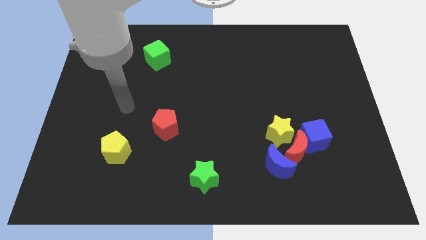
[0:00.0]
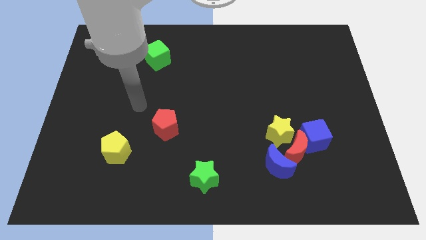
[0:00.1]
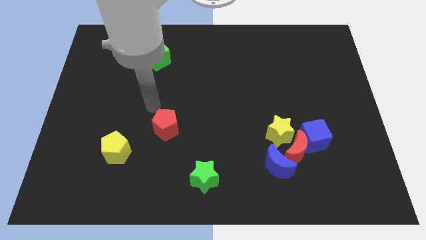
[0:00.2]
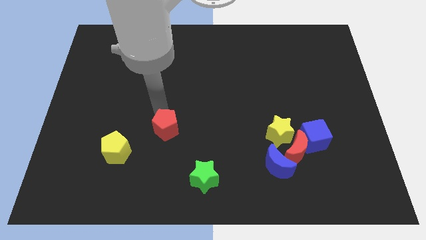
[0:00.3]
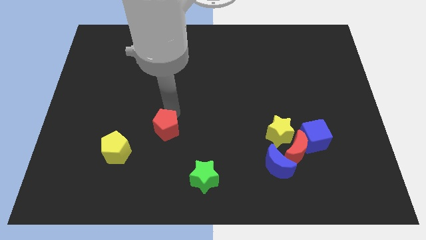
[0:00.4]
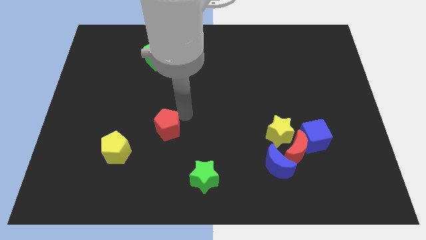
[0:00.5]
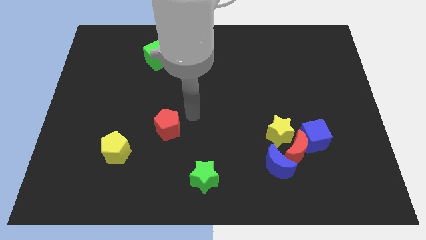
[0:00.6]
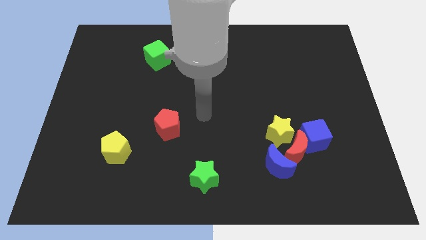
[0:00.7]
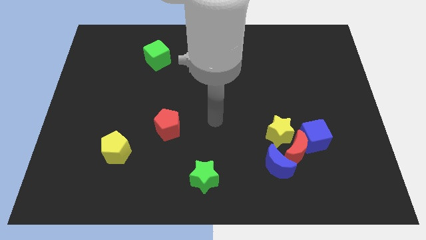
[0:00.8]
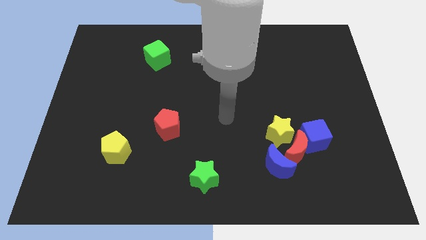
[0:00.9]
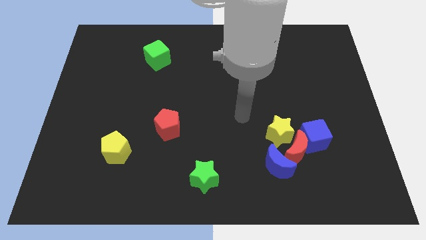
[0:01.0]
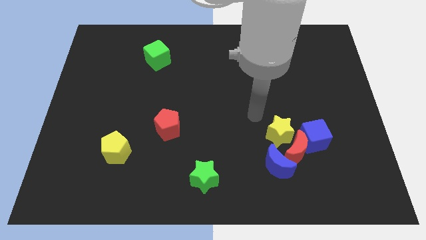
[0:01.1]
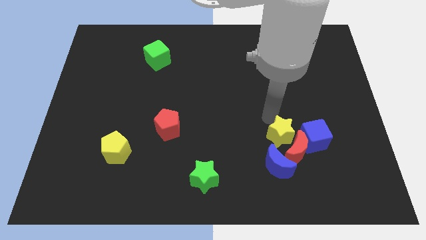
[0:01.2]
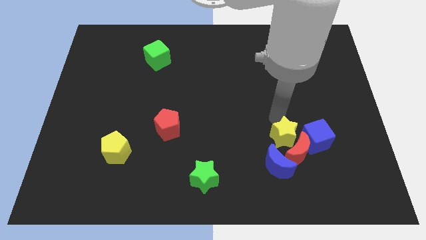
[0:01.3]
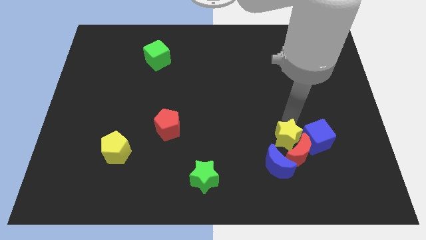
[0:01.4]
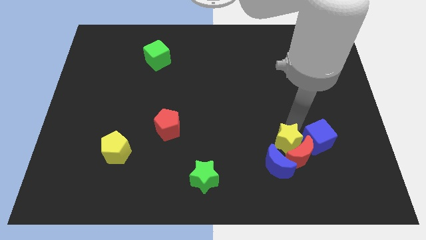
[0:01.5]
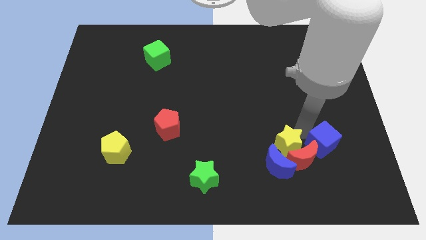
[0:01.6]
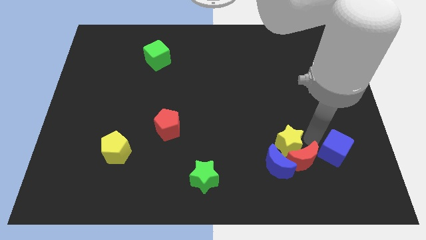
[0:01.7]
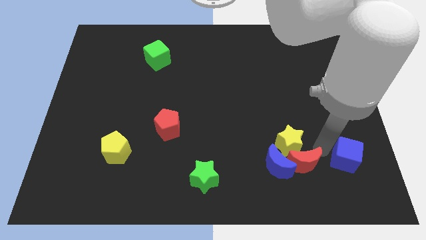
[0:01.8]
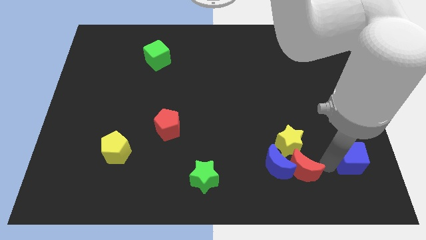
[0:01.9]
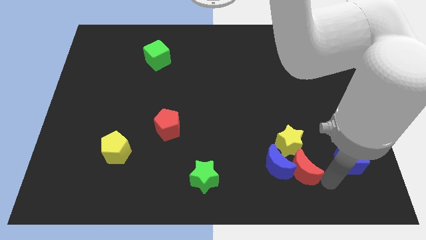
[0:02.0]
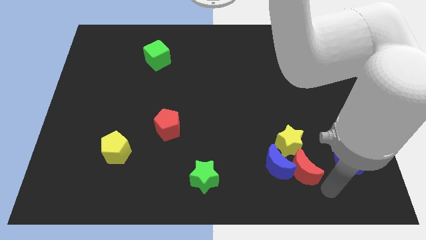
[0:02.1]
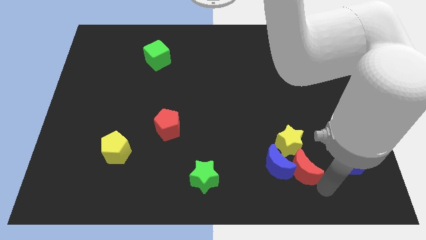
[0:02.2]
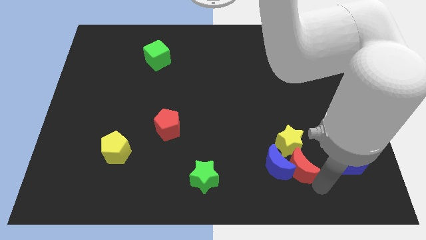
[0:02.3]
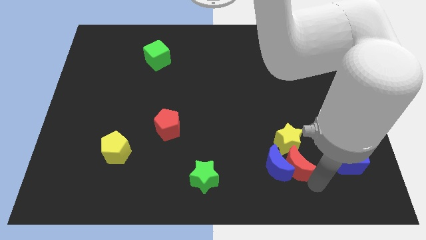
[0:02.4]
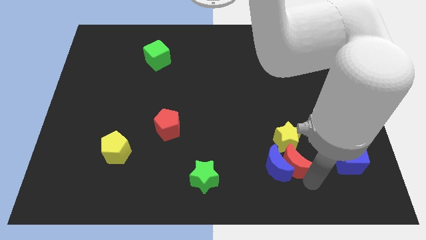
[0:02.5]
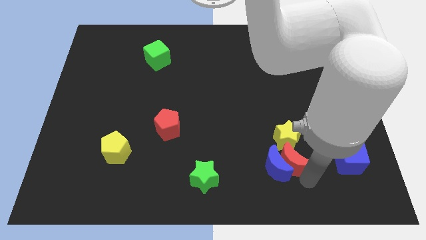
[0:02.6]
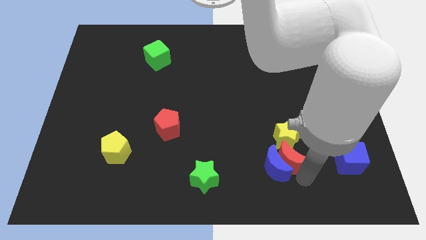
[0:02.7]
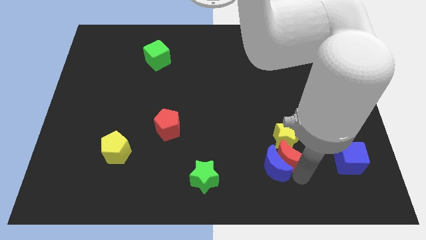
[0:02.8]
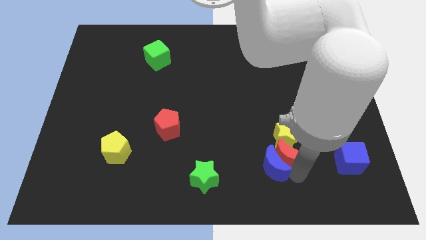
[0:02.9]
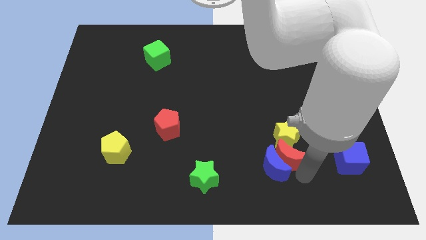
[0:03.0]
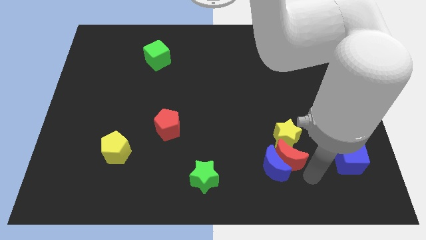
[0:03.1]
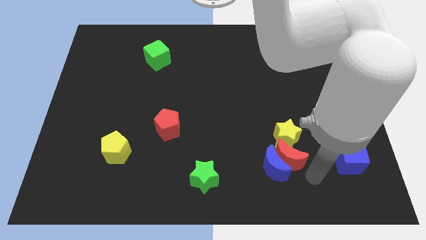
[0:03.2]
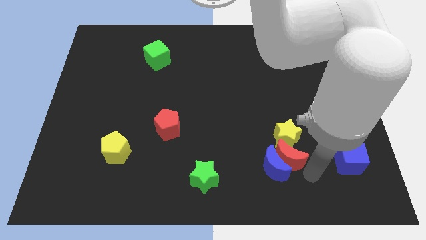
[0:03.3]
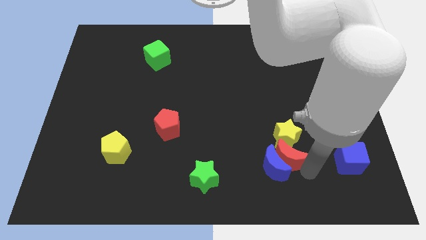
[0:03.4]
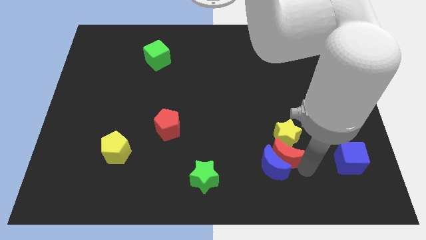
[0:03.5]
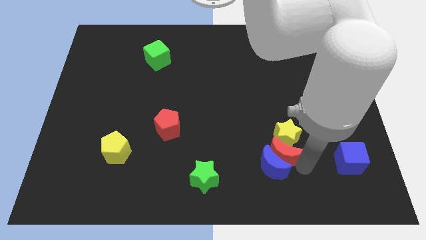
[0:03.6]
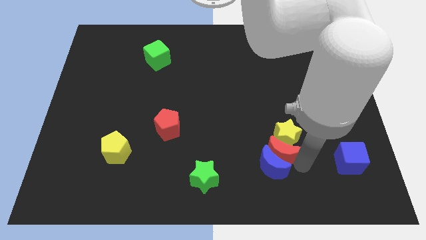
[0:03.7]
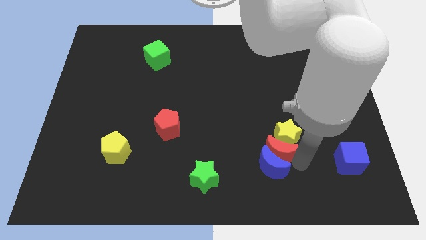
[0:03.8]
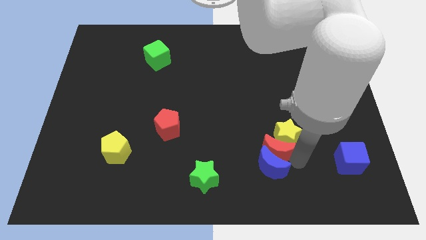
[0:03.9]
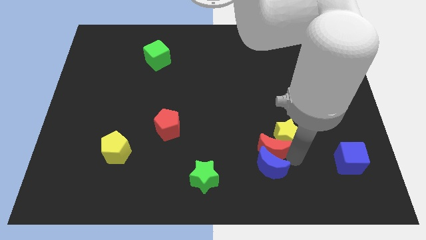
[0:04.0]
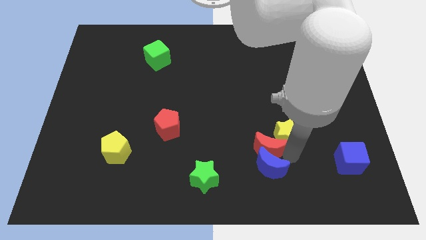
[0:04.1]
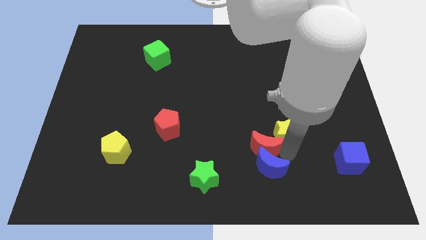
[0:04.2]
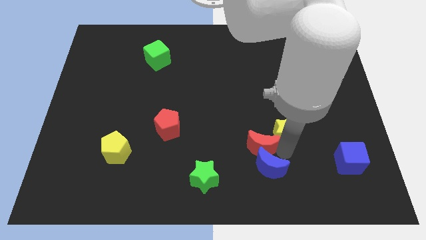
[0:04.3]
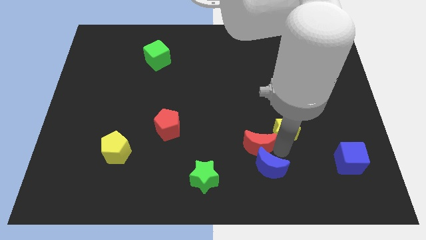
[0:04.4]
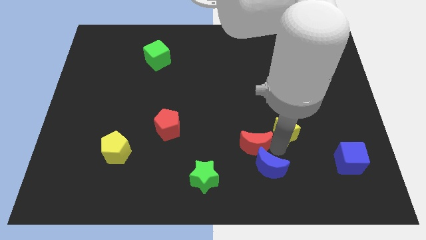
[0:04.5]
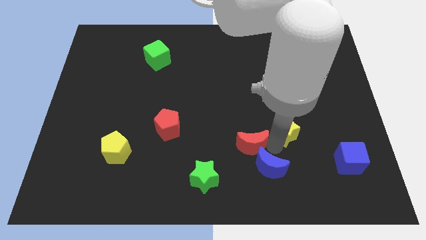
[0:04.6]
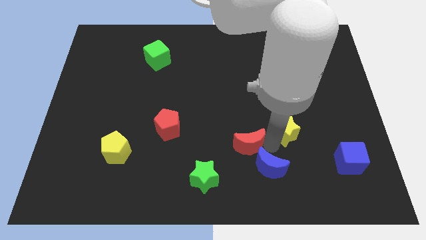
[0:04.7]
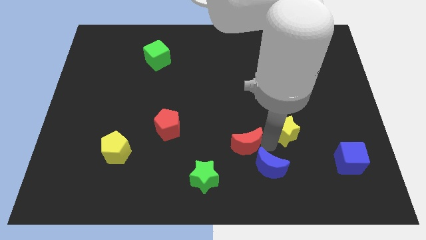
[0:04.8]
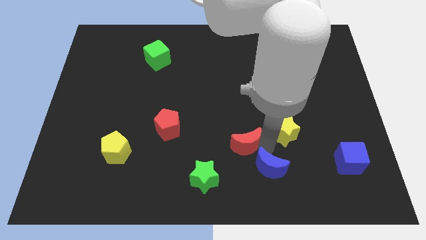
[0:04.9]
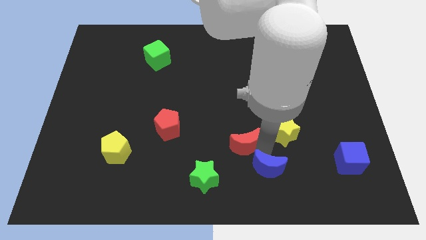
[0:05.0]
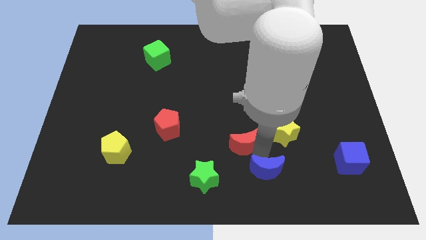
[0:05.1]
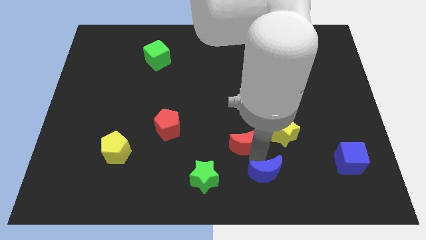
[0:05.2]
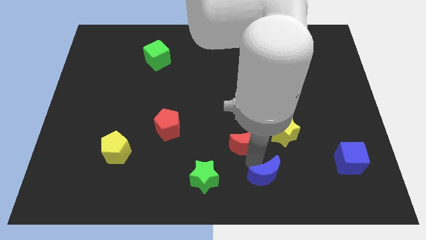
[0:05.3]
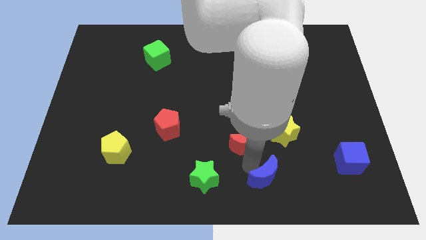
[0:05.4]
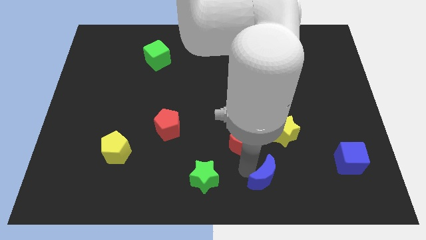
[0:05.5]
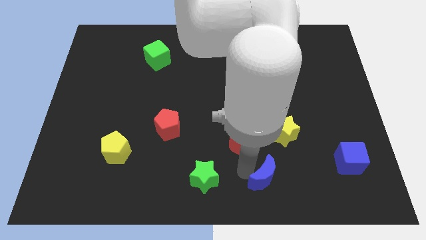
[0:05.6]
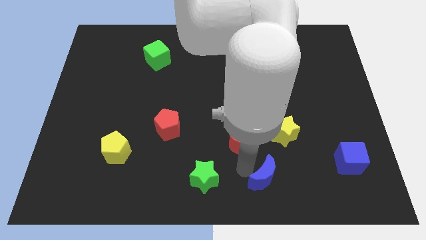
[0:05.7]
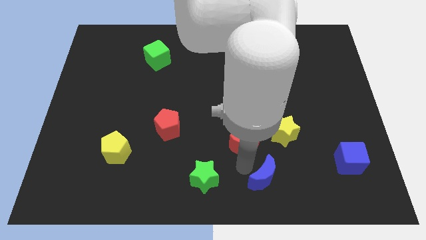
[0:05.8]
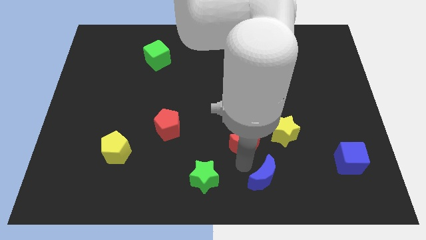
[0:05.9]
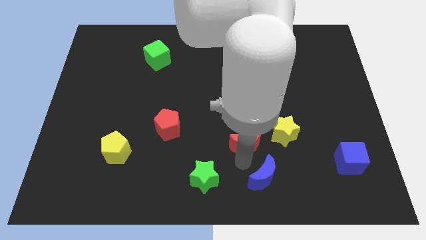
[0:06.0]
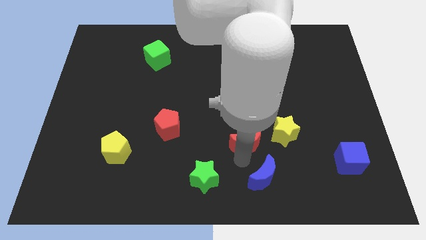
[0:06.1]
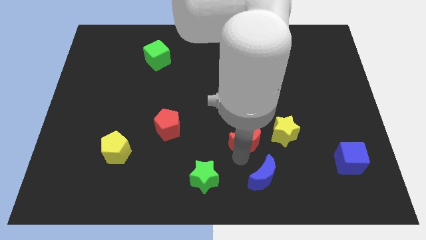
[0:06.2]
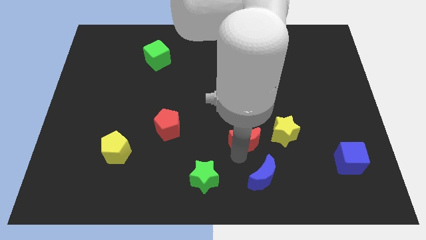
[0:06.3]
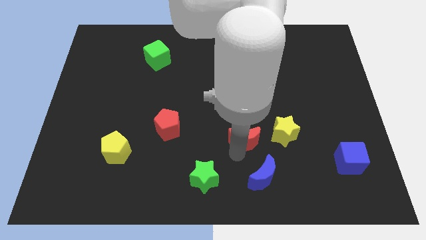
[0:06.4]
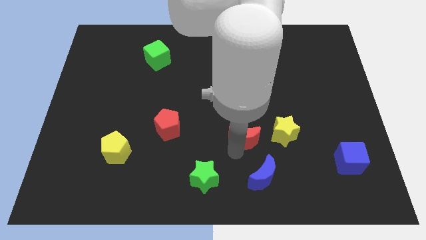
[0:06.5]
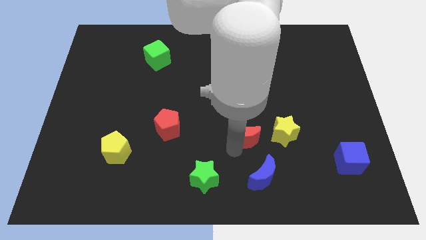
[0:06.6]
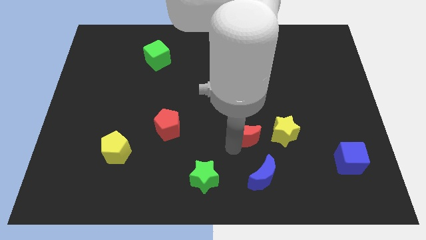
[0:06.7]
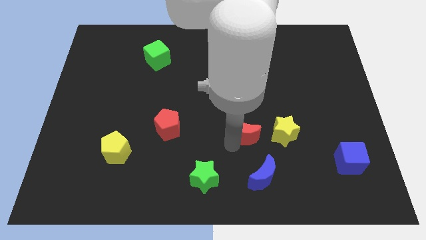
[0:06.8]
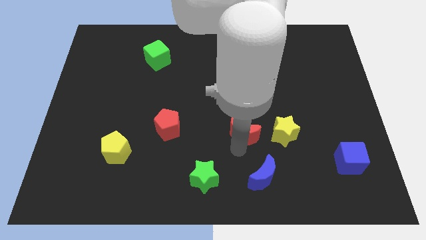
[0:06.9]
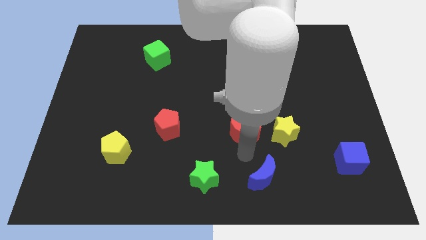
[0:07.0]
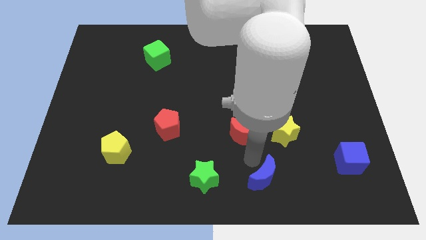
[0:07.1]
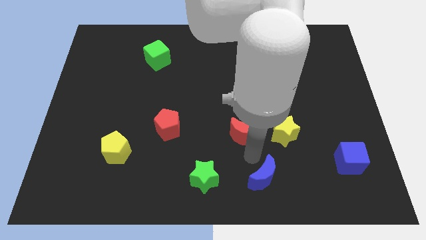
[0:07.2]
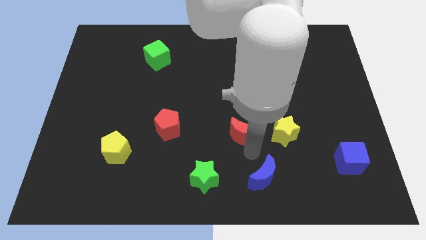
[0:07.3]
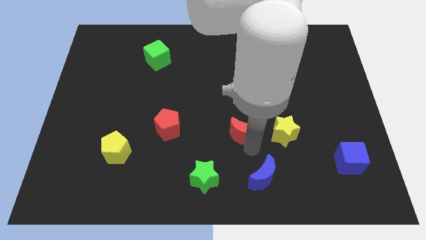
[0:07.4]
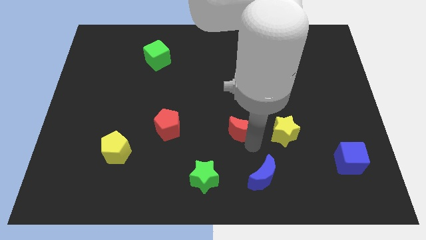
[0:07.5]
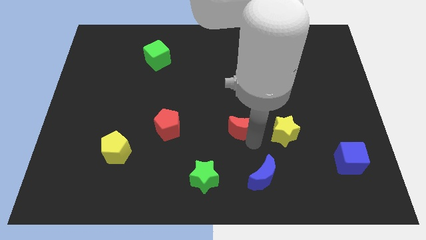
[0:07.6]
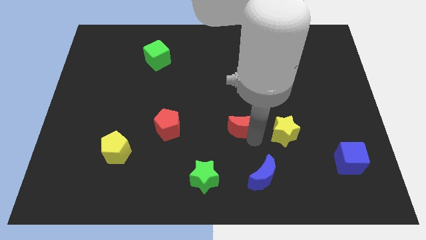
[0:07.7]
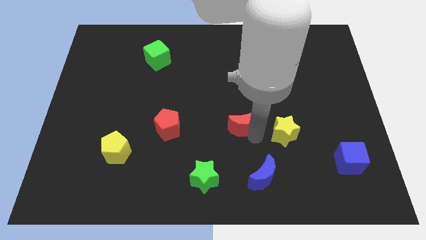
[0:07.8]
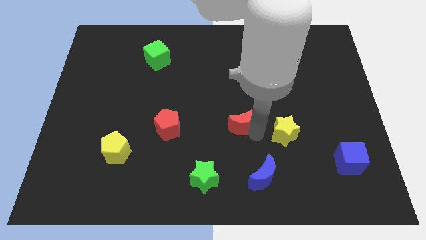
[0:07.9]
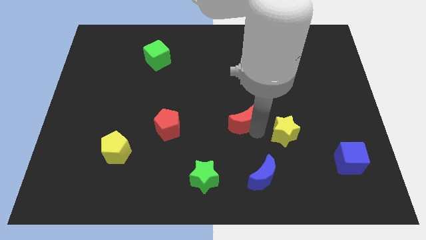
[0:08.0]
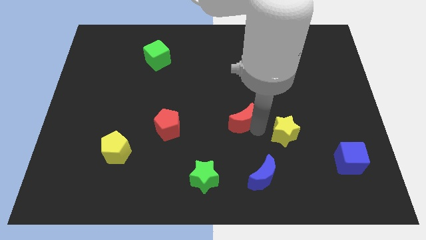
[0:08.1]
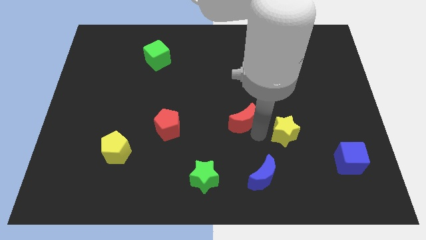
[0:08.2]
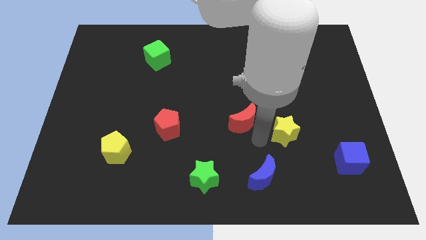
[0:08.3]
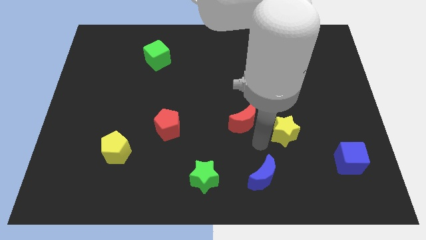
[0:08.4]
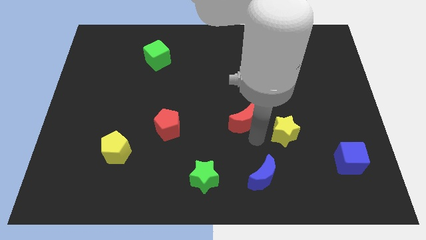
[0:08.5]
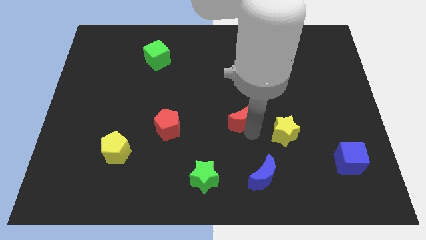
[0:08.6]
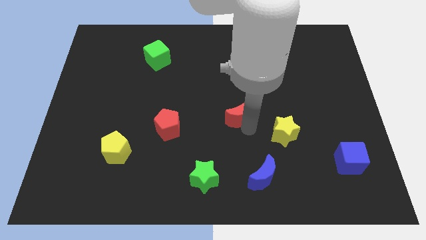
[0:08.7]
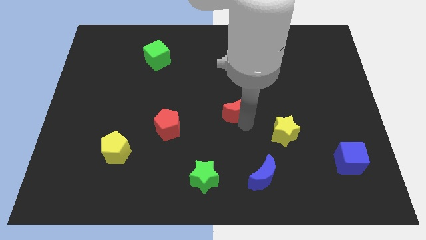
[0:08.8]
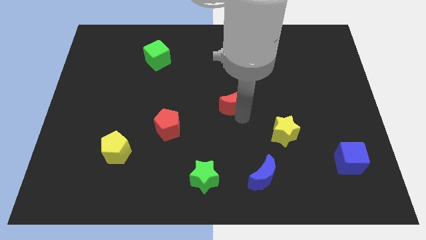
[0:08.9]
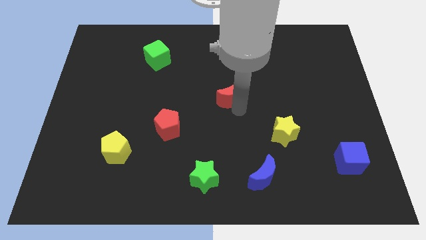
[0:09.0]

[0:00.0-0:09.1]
move the red moon up and to the left diagonally
